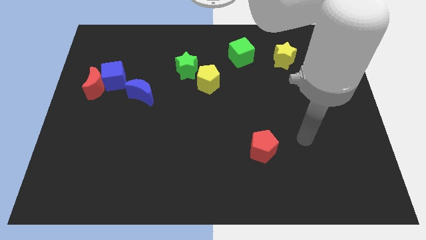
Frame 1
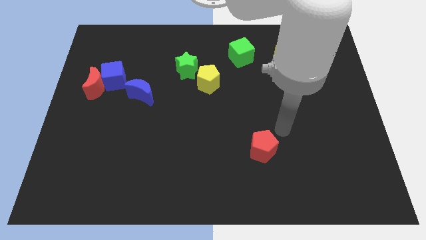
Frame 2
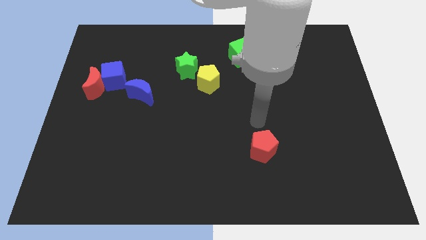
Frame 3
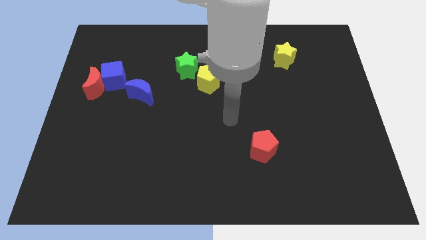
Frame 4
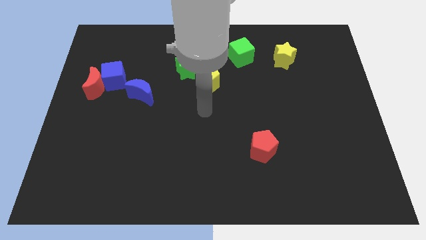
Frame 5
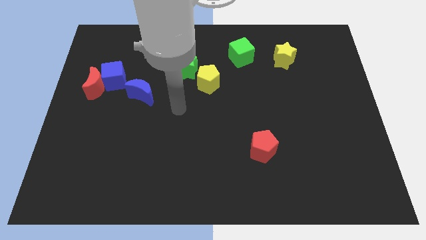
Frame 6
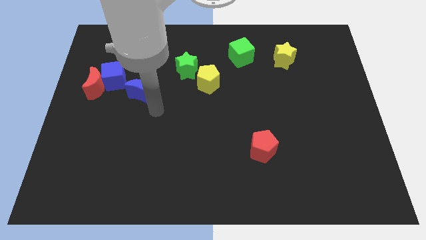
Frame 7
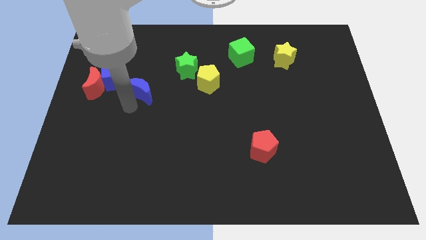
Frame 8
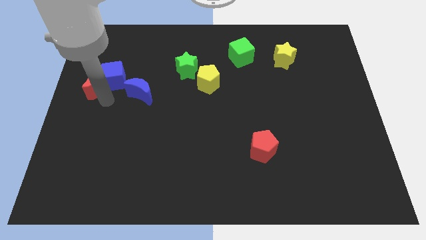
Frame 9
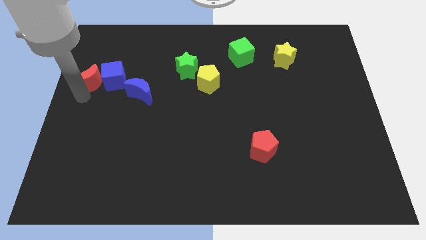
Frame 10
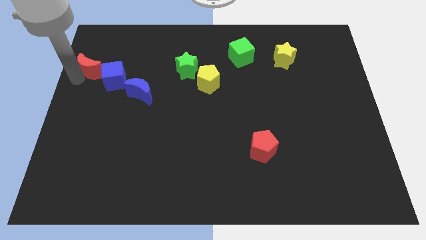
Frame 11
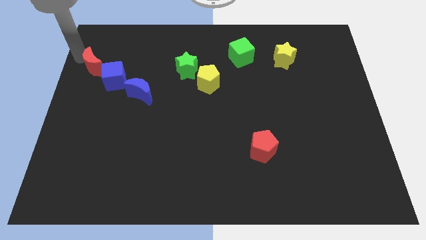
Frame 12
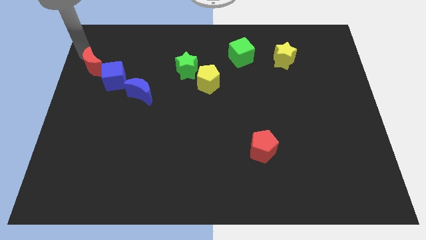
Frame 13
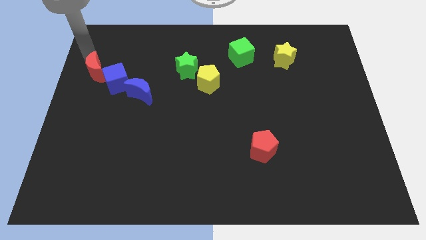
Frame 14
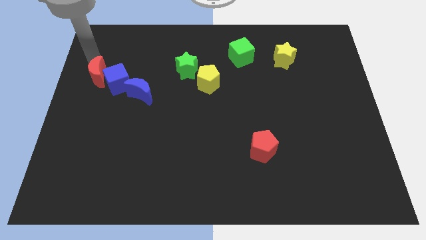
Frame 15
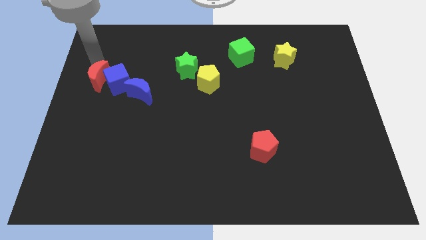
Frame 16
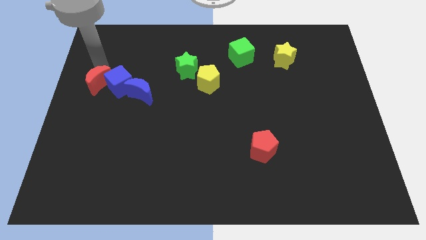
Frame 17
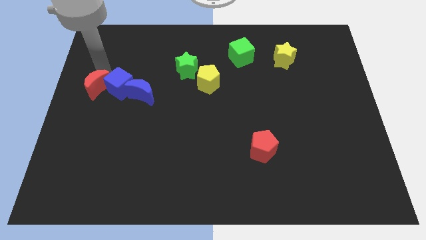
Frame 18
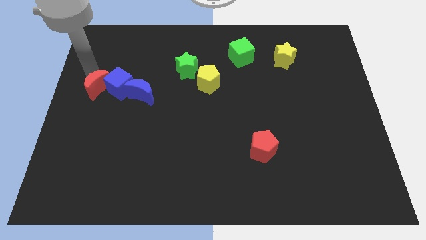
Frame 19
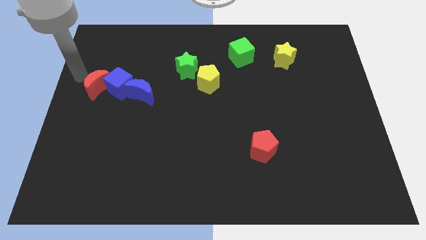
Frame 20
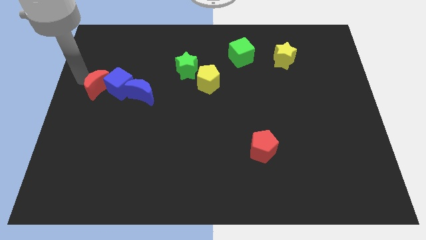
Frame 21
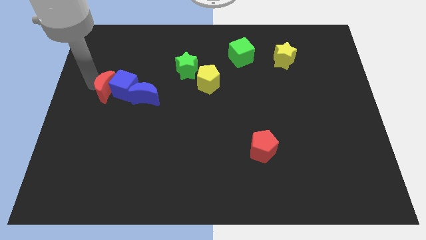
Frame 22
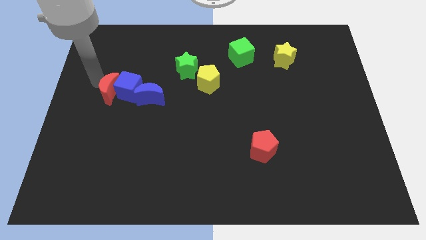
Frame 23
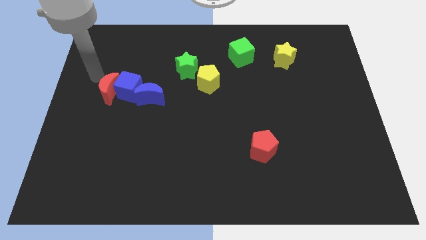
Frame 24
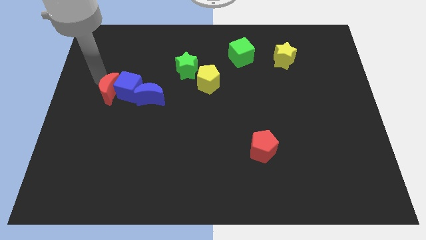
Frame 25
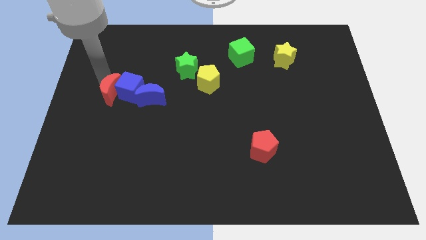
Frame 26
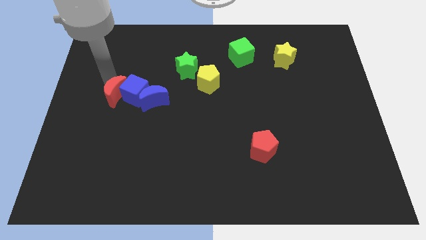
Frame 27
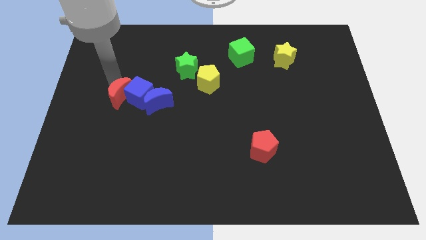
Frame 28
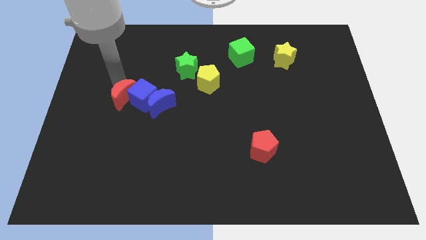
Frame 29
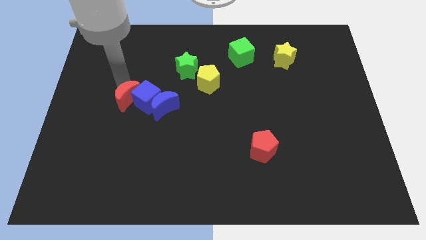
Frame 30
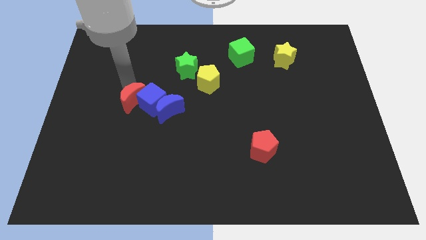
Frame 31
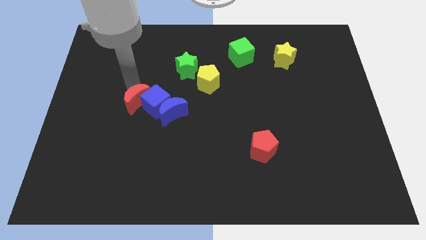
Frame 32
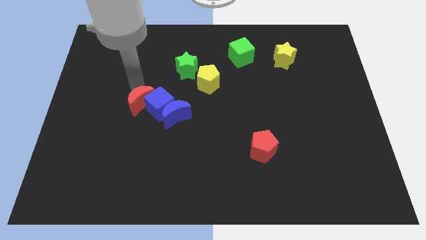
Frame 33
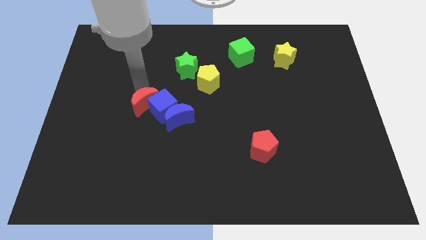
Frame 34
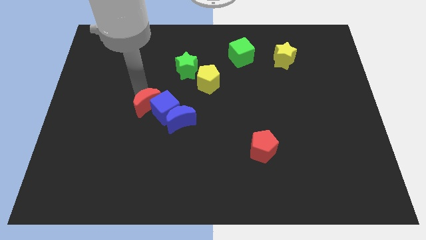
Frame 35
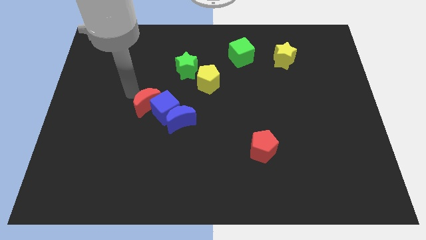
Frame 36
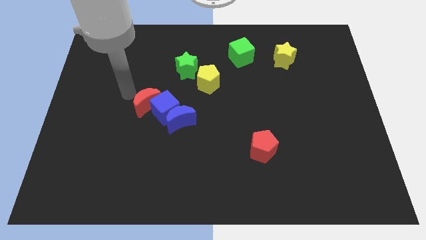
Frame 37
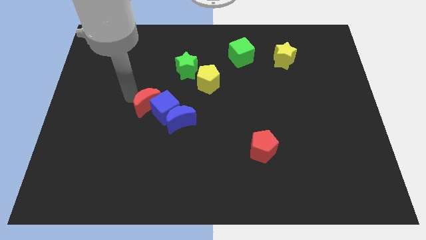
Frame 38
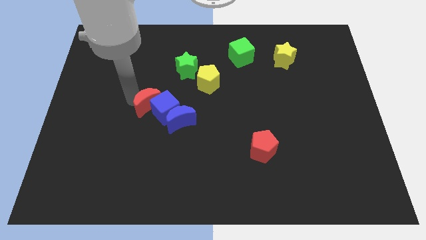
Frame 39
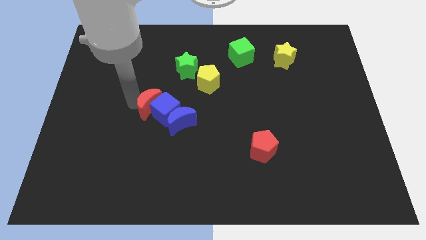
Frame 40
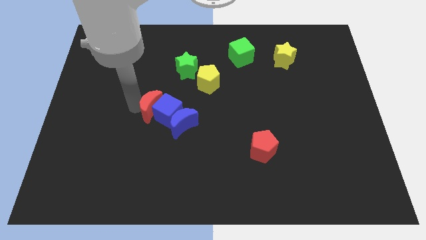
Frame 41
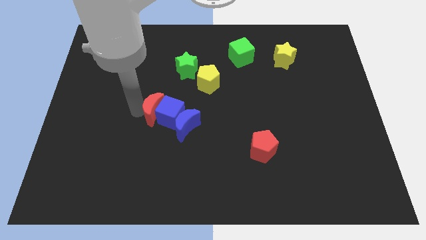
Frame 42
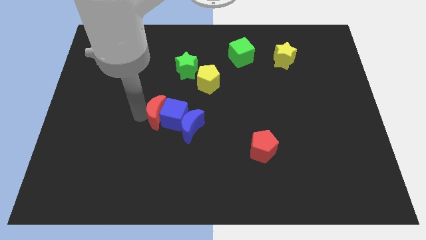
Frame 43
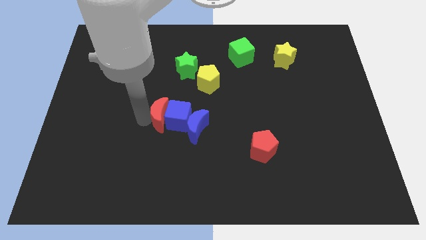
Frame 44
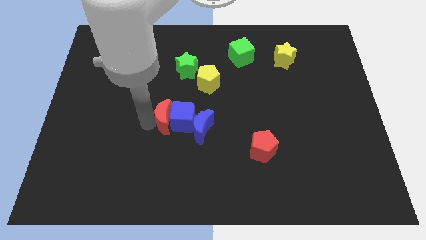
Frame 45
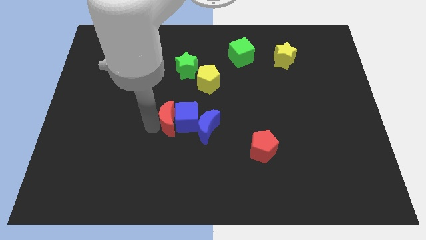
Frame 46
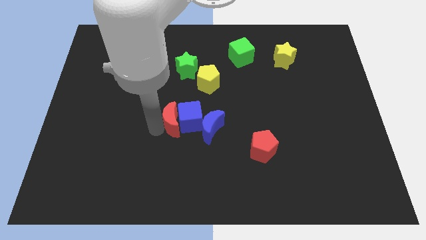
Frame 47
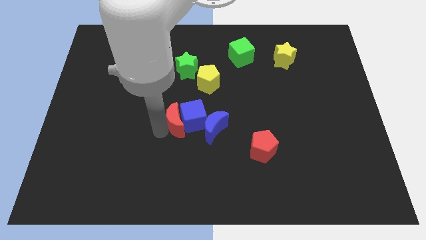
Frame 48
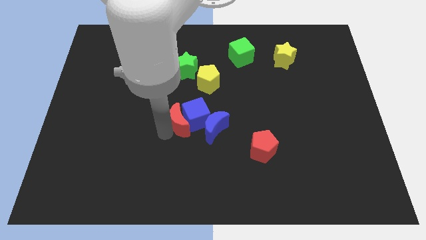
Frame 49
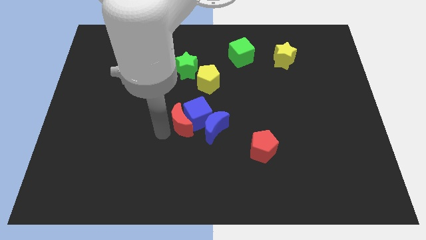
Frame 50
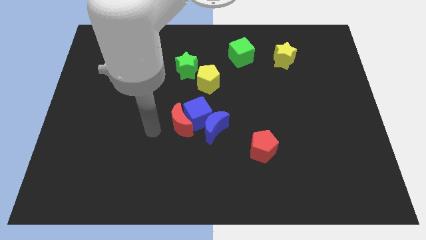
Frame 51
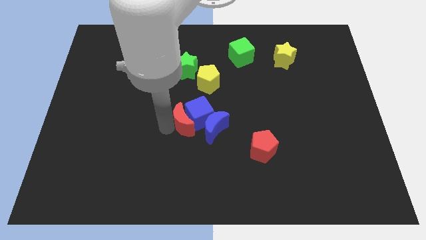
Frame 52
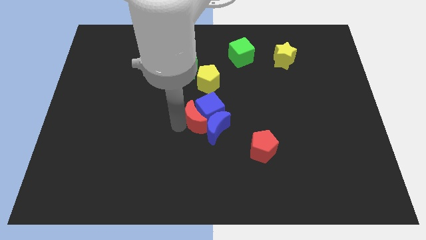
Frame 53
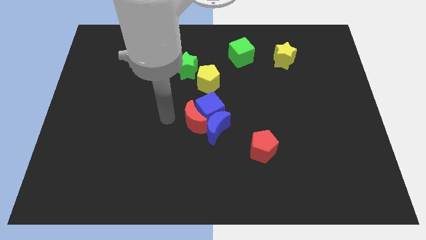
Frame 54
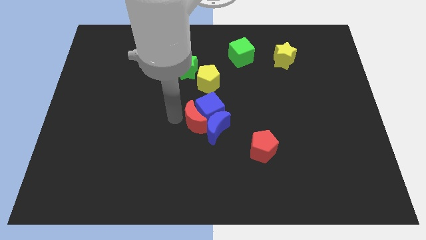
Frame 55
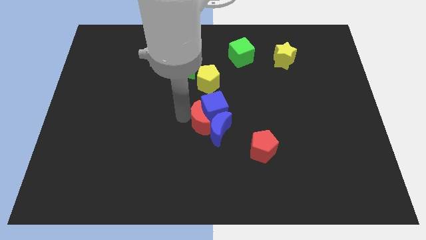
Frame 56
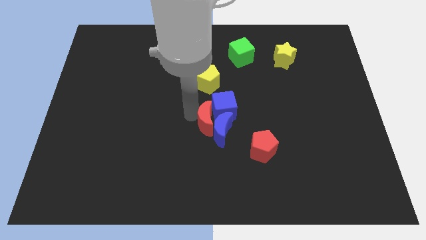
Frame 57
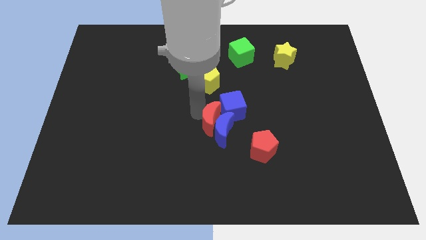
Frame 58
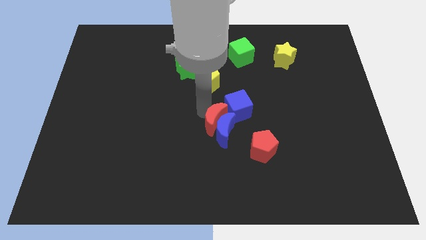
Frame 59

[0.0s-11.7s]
push the red moon to the top left of the red pentagon

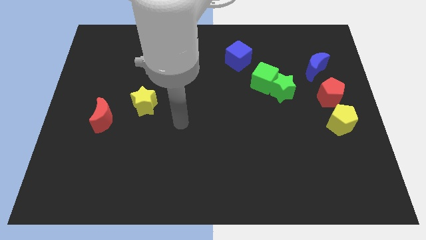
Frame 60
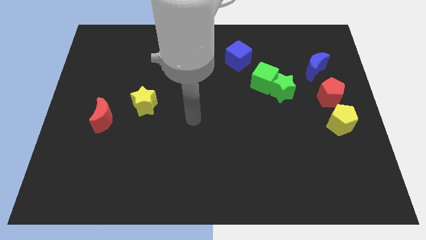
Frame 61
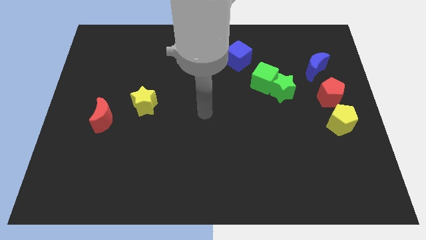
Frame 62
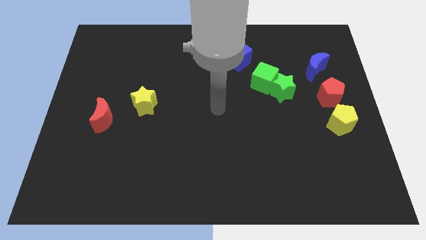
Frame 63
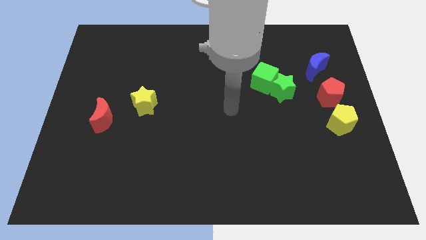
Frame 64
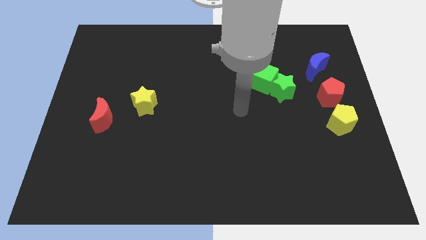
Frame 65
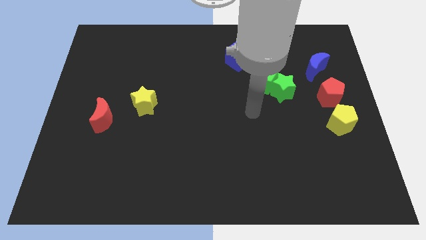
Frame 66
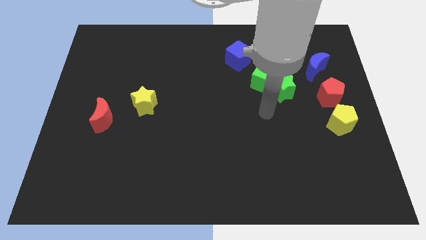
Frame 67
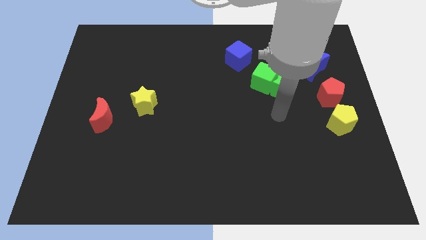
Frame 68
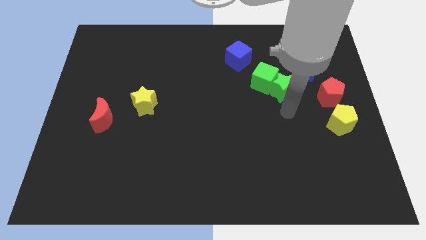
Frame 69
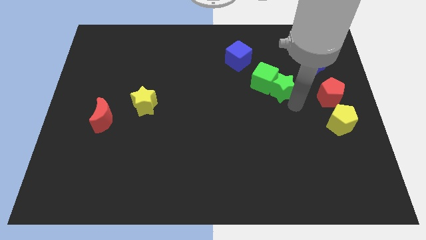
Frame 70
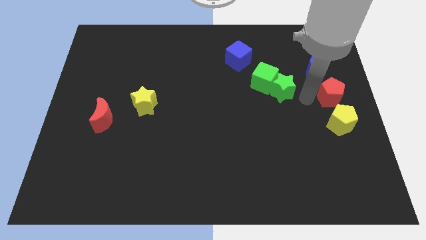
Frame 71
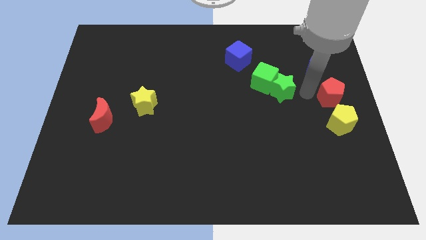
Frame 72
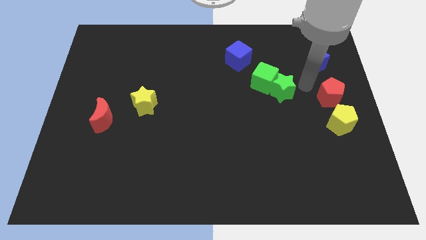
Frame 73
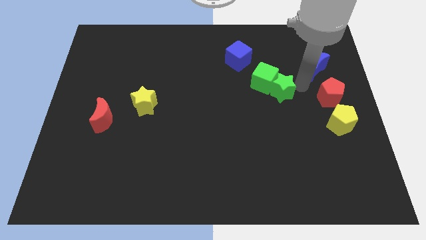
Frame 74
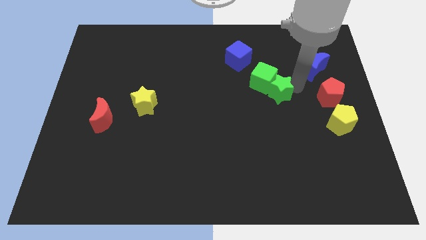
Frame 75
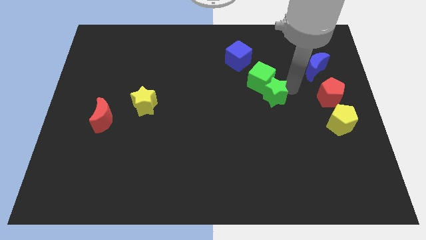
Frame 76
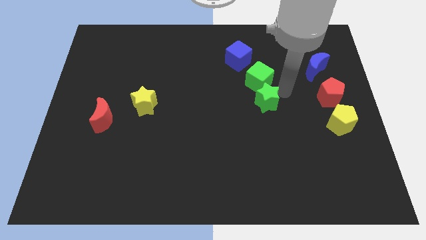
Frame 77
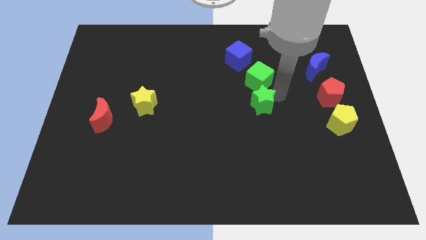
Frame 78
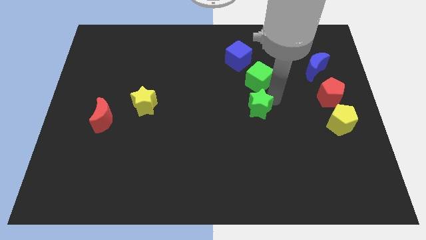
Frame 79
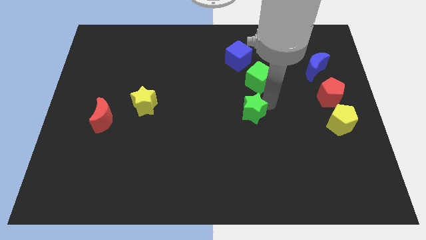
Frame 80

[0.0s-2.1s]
push the green star diagonally down and to the left of the green cube
